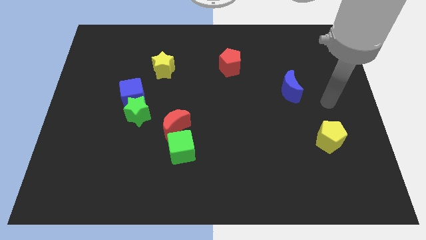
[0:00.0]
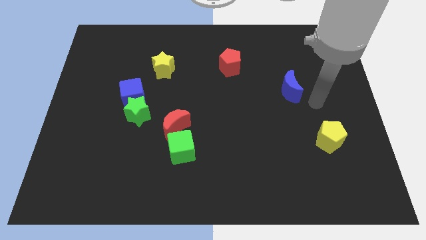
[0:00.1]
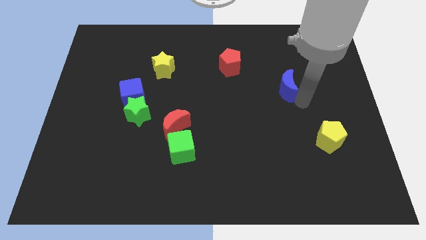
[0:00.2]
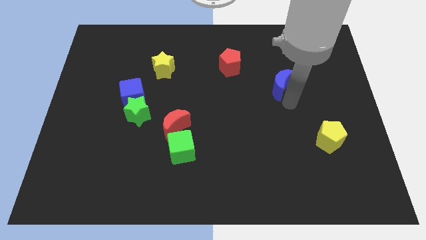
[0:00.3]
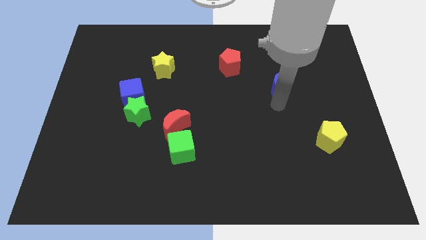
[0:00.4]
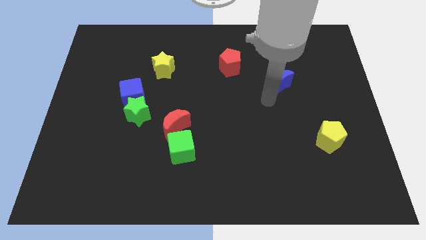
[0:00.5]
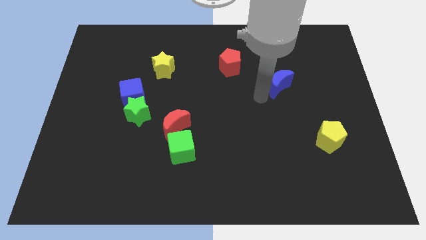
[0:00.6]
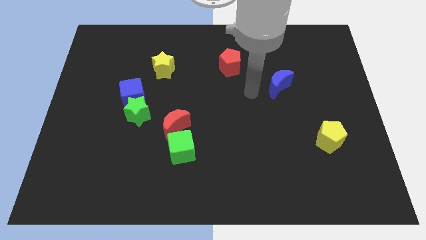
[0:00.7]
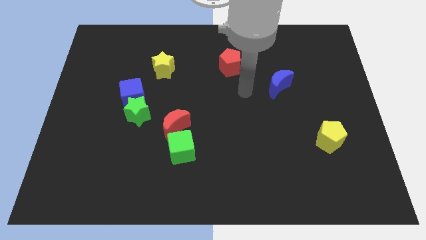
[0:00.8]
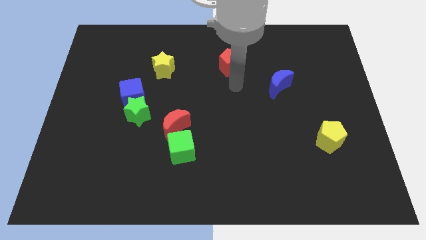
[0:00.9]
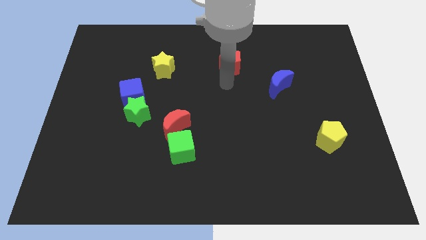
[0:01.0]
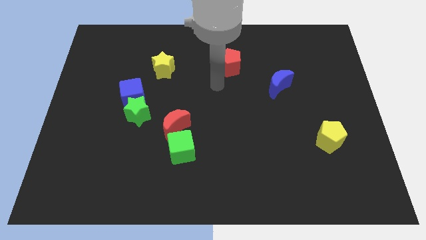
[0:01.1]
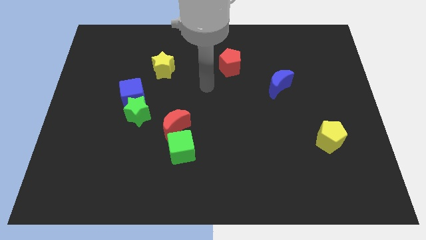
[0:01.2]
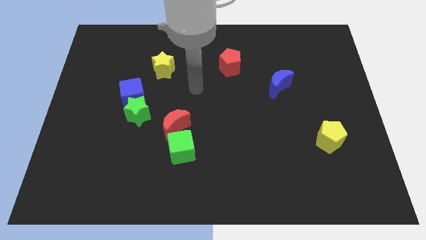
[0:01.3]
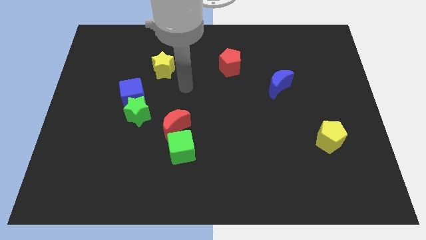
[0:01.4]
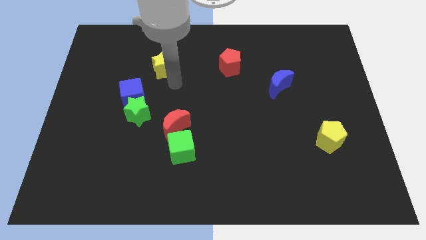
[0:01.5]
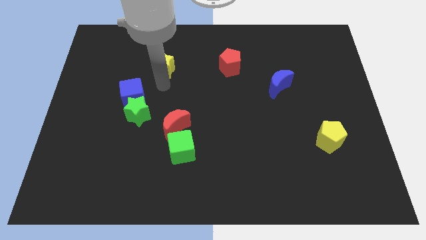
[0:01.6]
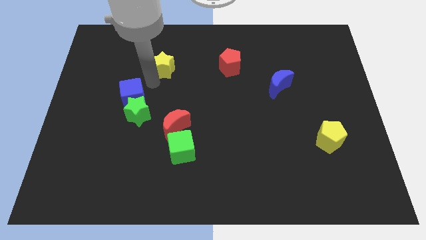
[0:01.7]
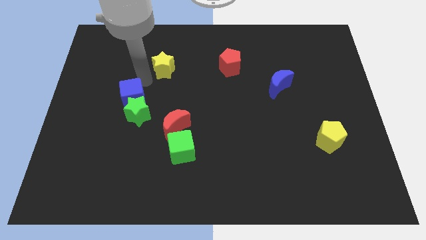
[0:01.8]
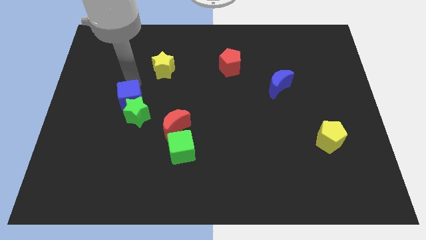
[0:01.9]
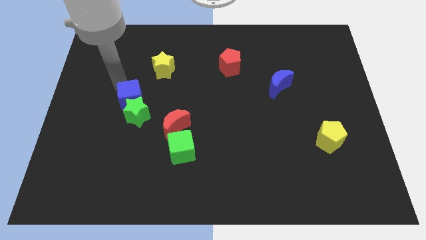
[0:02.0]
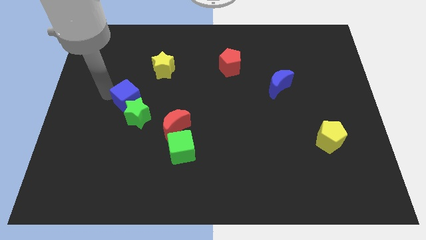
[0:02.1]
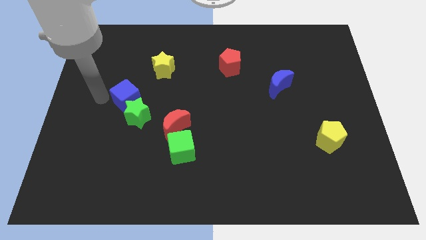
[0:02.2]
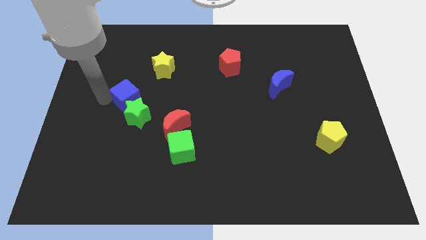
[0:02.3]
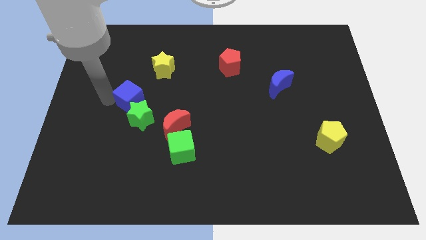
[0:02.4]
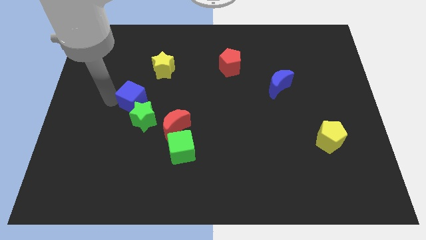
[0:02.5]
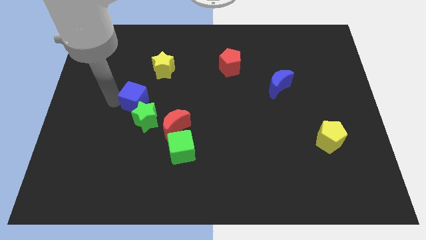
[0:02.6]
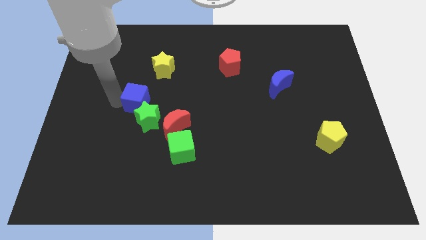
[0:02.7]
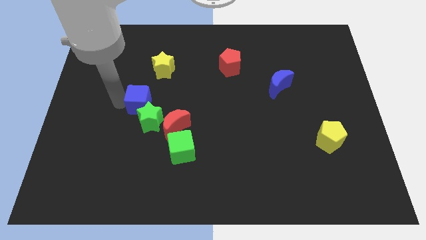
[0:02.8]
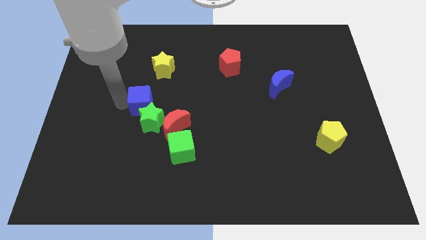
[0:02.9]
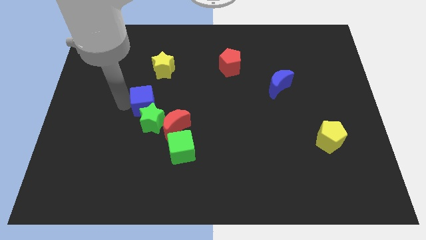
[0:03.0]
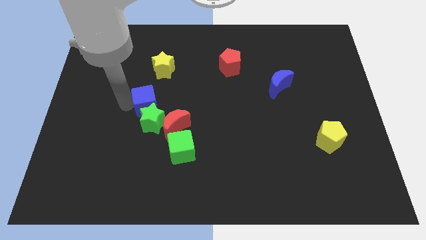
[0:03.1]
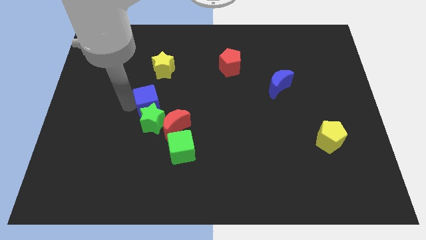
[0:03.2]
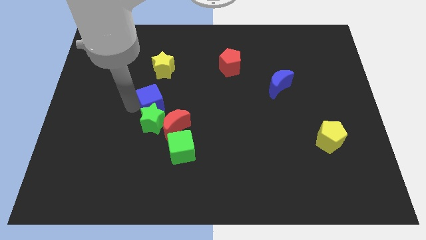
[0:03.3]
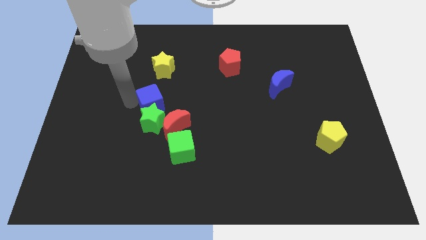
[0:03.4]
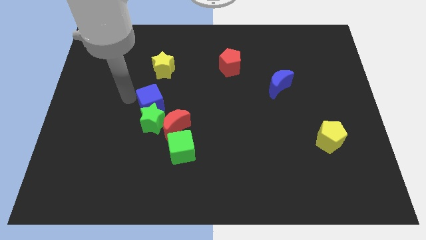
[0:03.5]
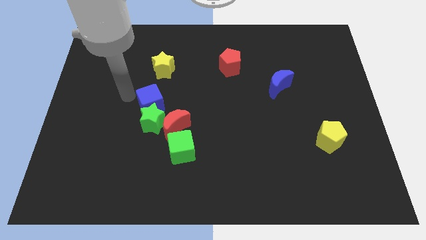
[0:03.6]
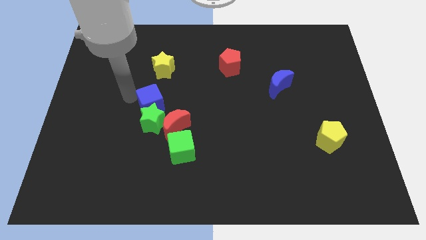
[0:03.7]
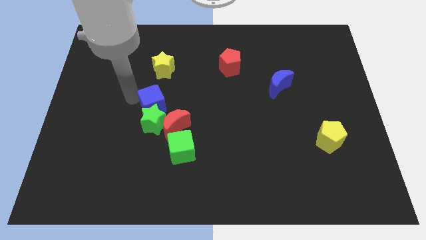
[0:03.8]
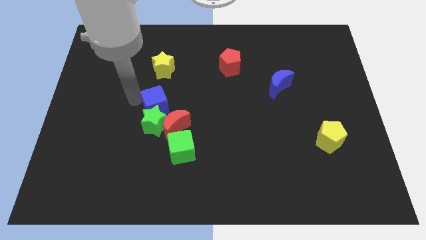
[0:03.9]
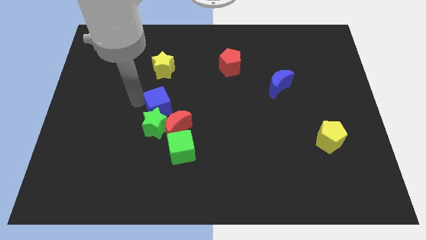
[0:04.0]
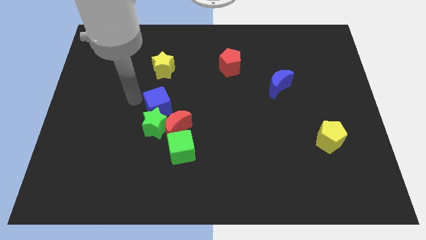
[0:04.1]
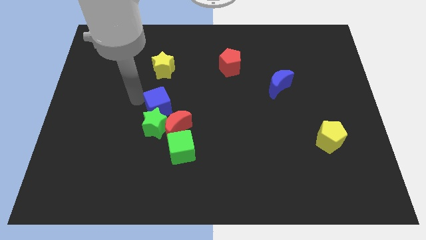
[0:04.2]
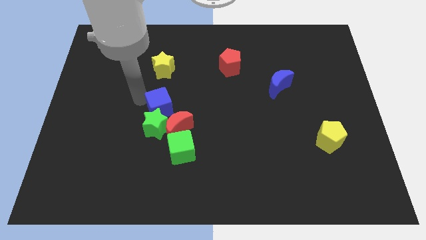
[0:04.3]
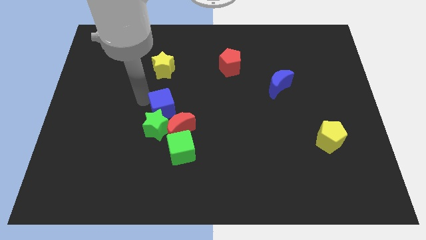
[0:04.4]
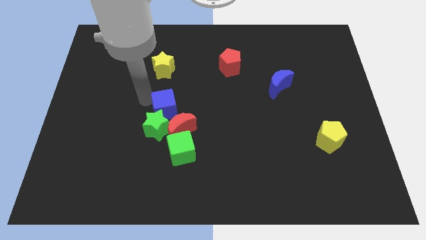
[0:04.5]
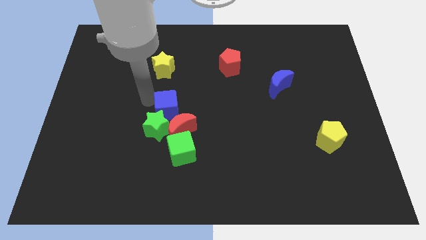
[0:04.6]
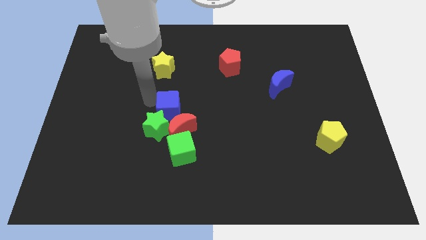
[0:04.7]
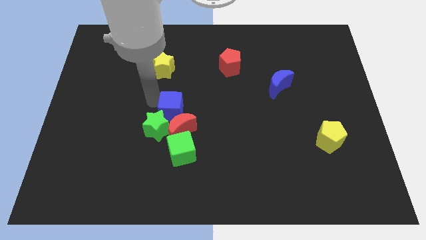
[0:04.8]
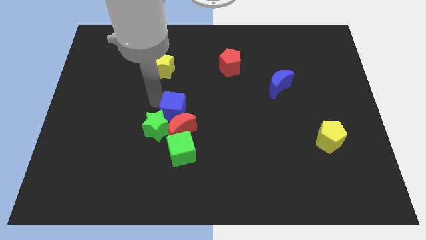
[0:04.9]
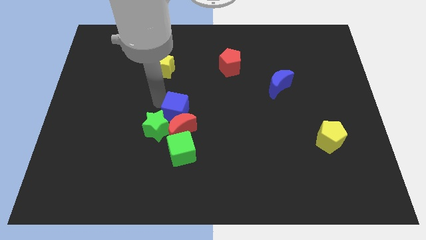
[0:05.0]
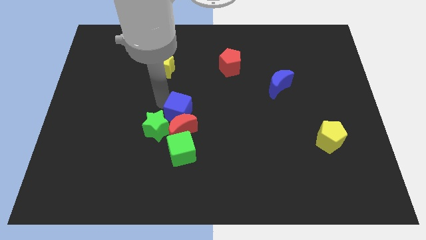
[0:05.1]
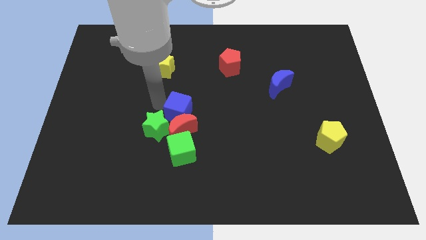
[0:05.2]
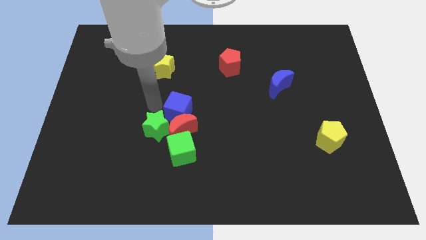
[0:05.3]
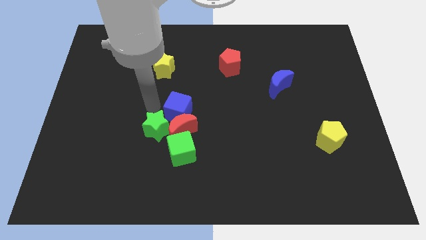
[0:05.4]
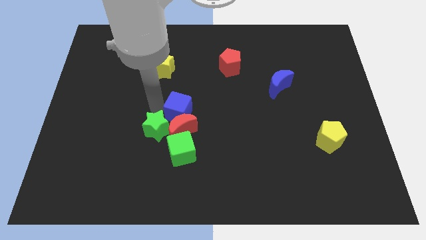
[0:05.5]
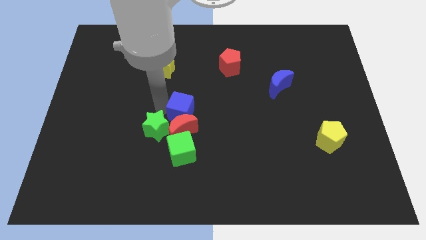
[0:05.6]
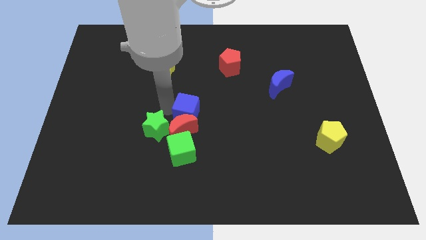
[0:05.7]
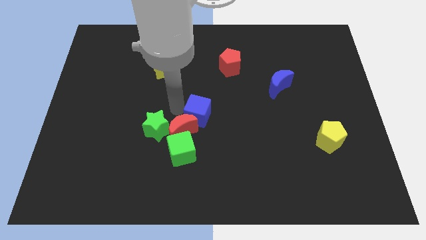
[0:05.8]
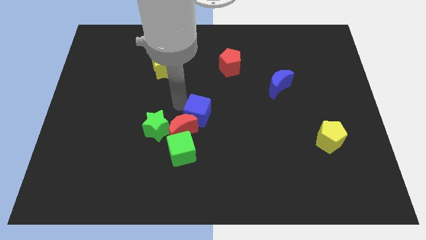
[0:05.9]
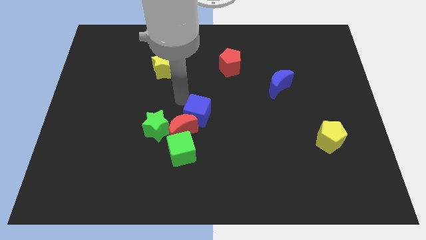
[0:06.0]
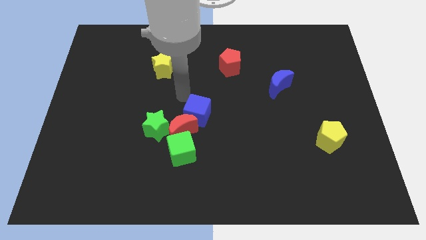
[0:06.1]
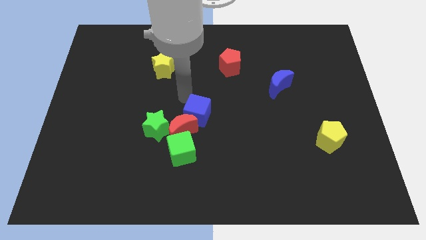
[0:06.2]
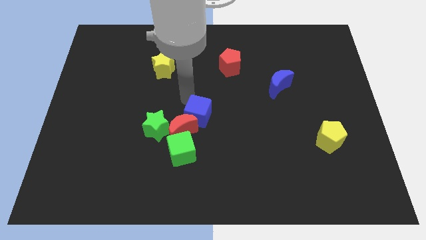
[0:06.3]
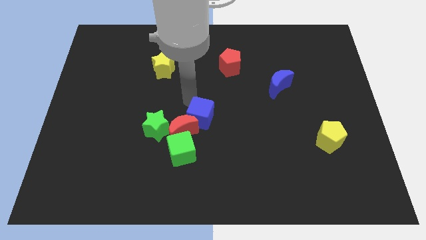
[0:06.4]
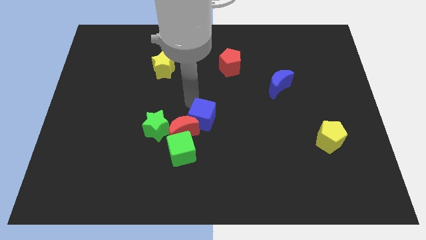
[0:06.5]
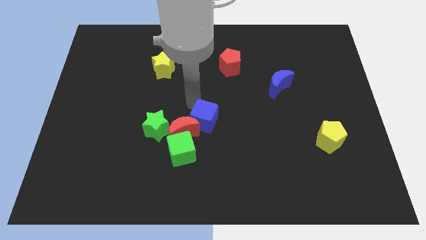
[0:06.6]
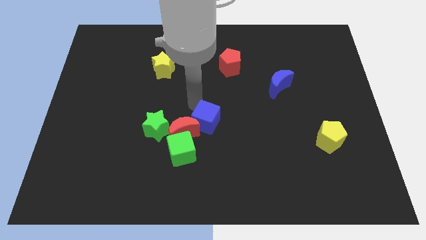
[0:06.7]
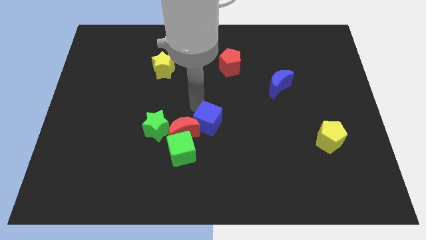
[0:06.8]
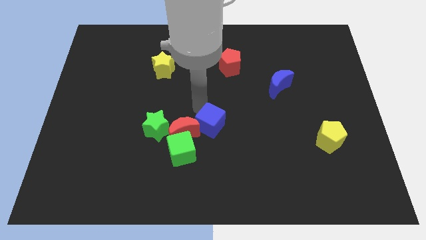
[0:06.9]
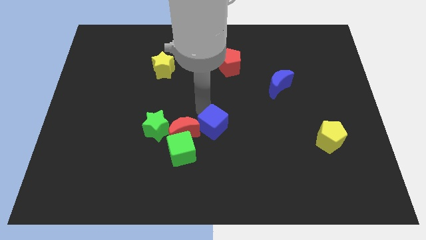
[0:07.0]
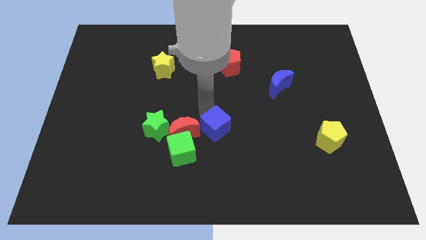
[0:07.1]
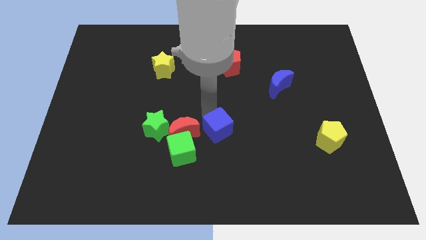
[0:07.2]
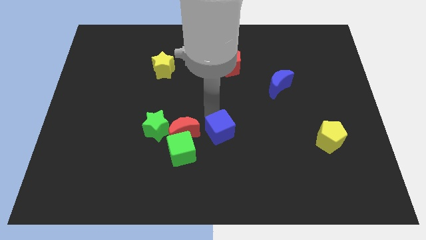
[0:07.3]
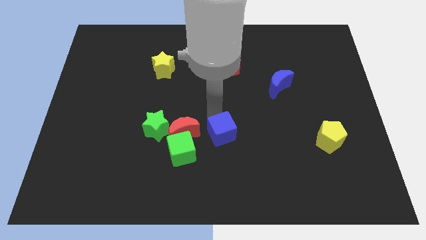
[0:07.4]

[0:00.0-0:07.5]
push the blue cube to the right of the green cube
